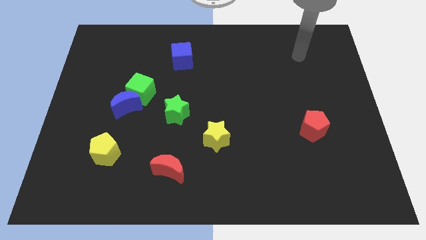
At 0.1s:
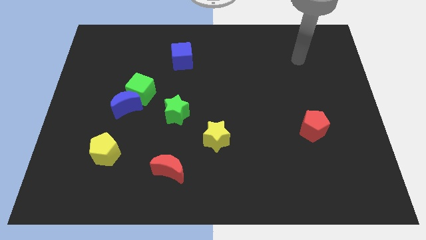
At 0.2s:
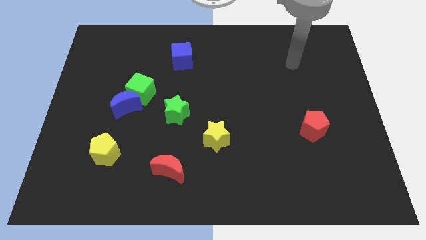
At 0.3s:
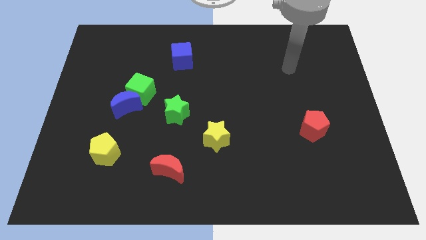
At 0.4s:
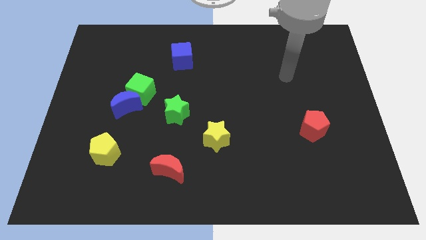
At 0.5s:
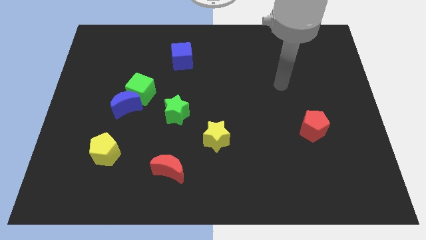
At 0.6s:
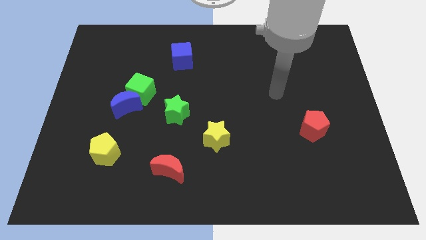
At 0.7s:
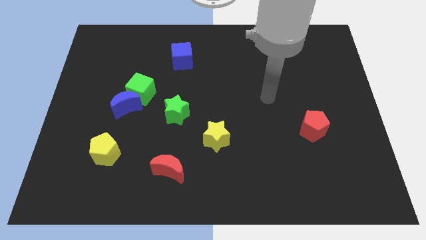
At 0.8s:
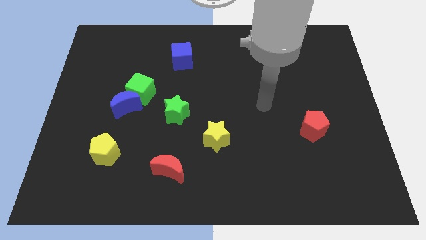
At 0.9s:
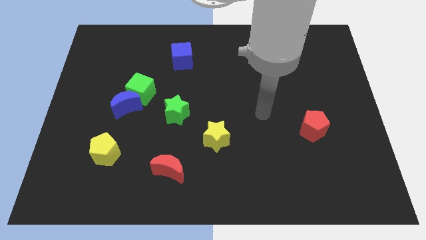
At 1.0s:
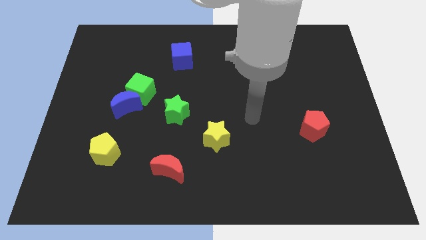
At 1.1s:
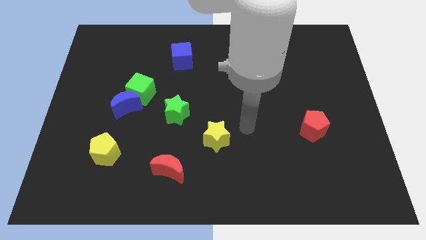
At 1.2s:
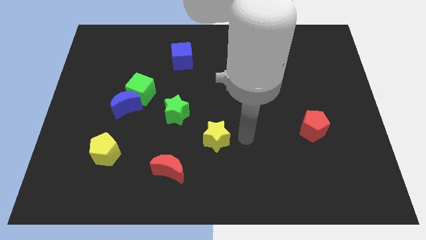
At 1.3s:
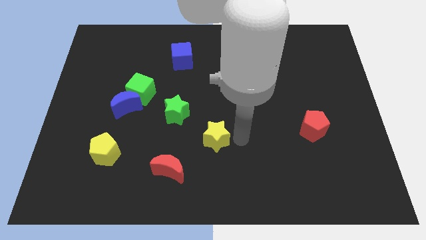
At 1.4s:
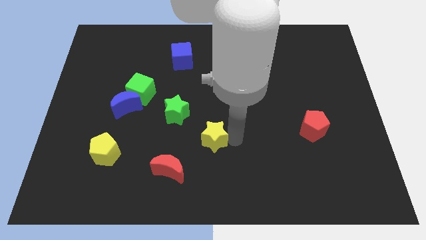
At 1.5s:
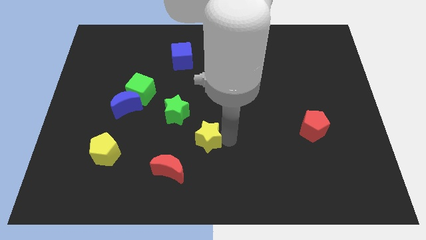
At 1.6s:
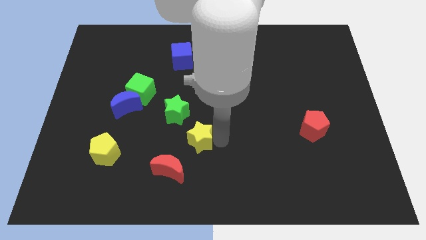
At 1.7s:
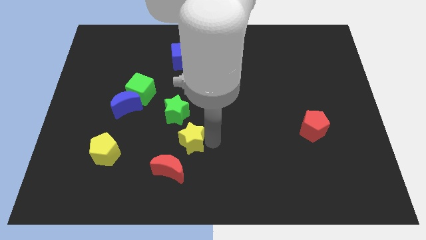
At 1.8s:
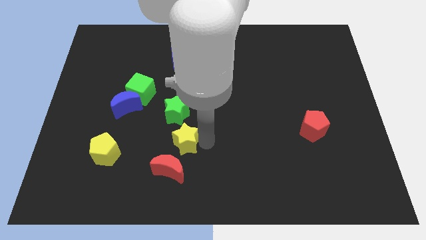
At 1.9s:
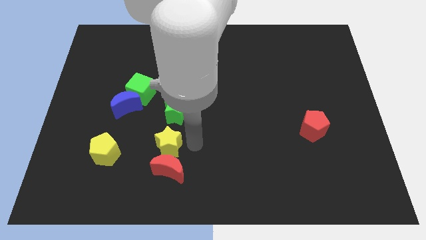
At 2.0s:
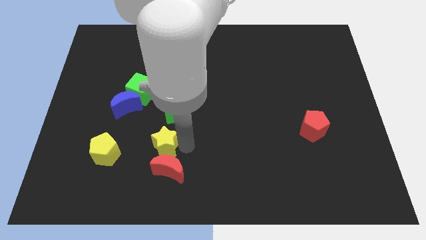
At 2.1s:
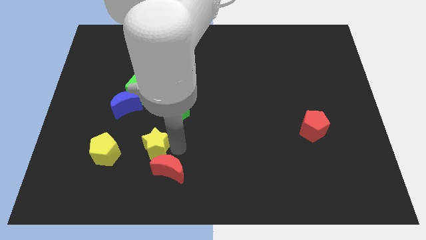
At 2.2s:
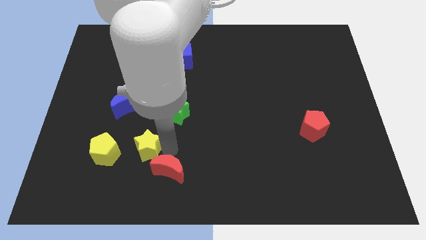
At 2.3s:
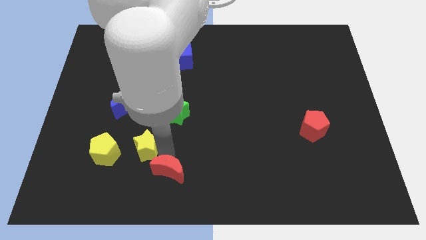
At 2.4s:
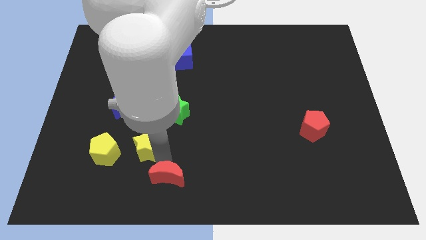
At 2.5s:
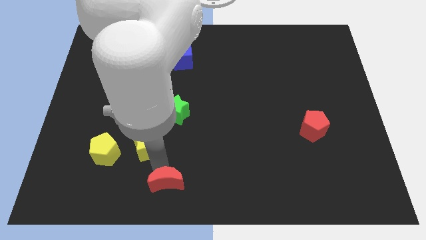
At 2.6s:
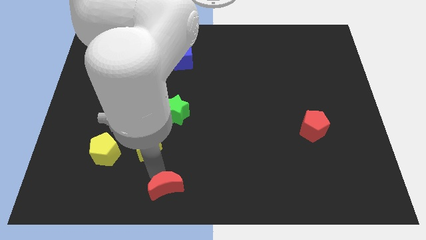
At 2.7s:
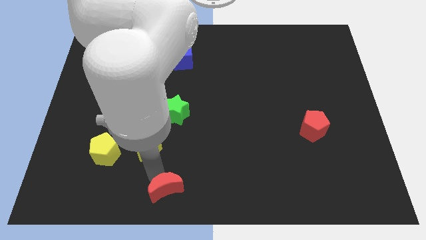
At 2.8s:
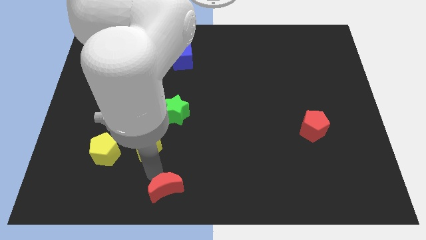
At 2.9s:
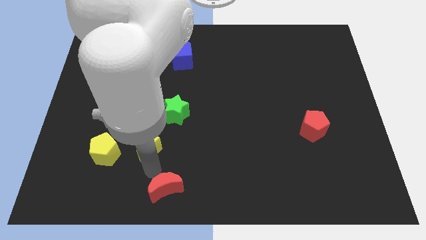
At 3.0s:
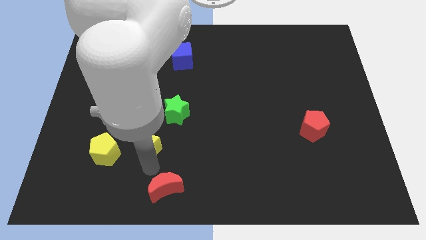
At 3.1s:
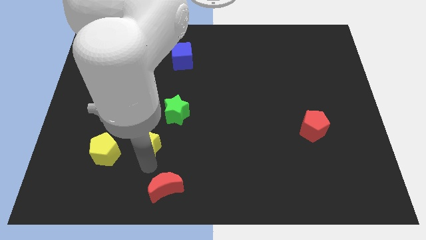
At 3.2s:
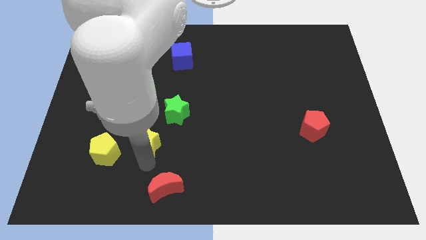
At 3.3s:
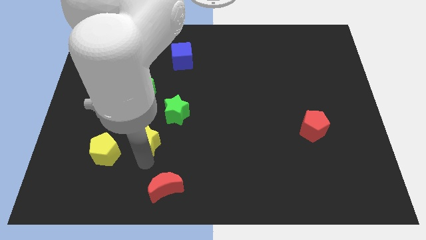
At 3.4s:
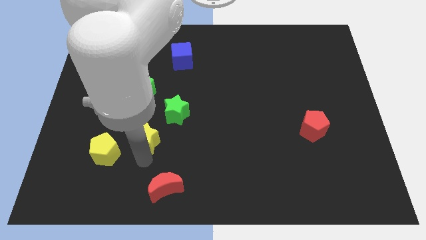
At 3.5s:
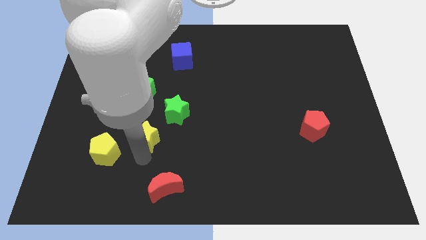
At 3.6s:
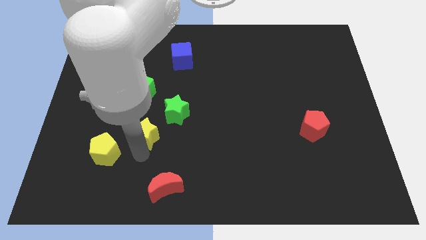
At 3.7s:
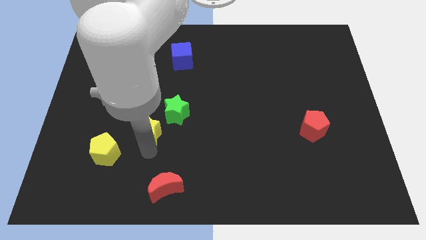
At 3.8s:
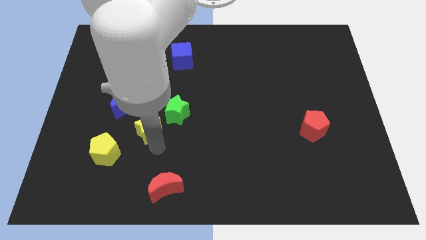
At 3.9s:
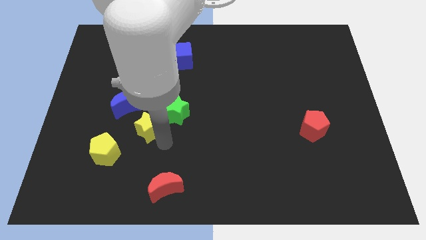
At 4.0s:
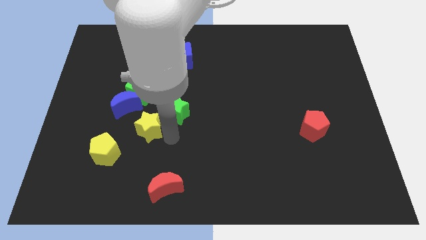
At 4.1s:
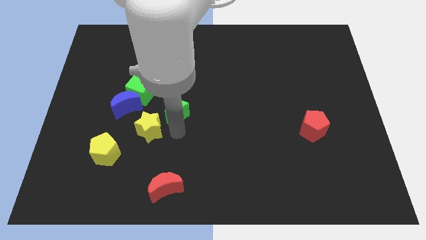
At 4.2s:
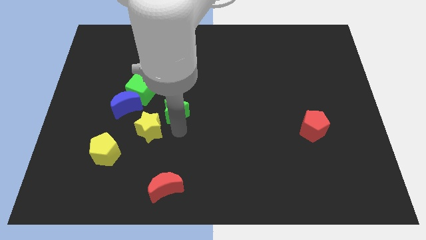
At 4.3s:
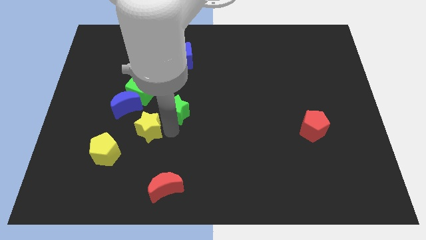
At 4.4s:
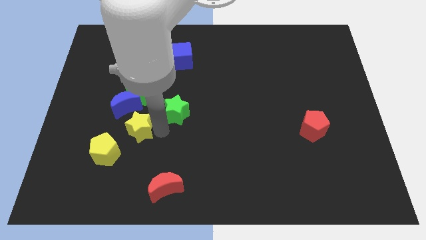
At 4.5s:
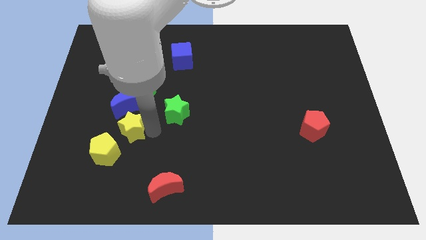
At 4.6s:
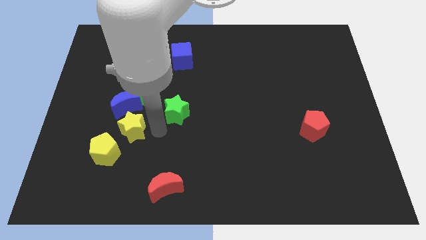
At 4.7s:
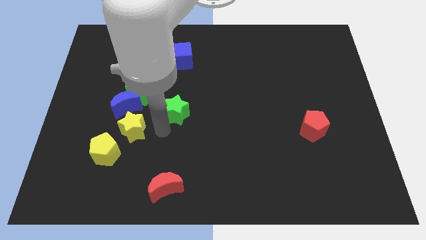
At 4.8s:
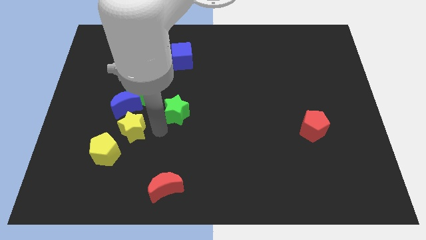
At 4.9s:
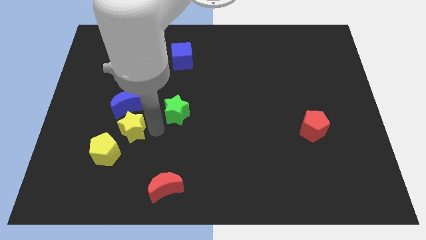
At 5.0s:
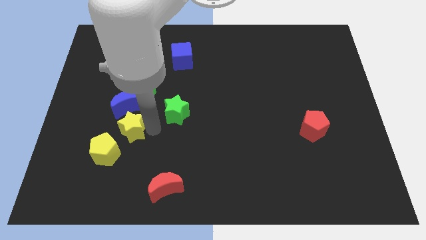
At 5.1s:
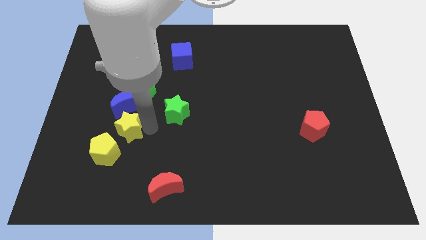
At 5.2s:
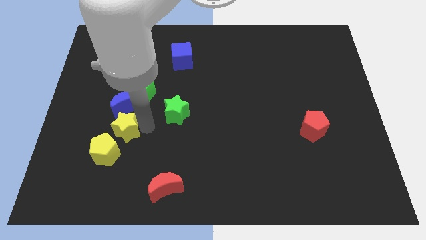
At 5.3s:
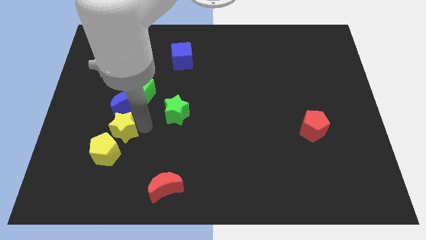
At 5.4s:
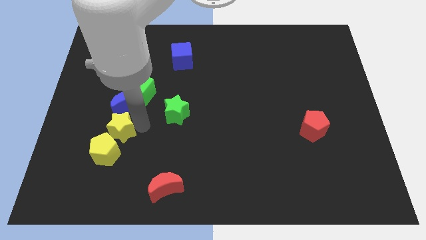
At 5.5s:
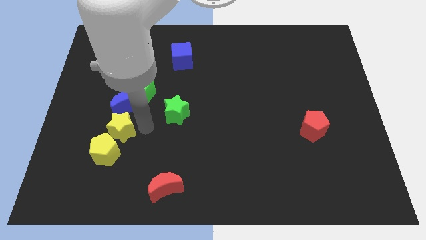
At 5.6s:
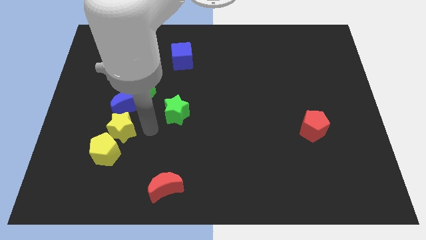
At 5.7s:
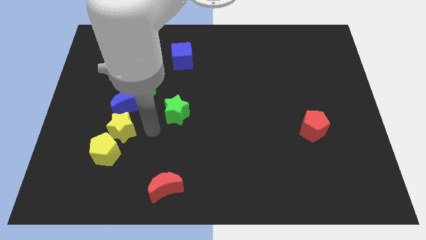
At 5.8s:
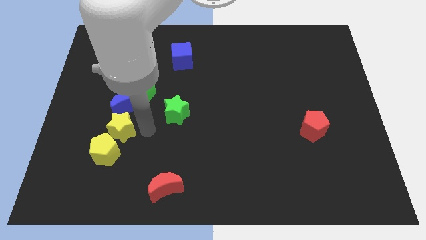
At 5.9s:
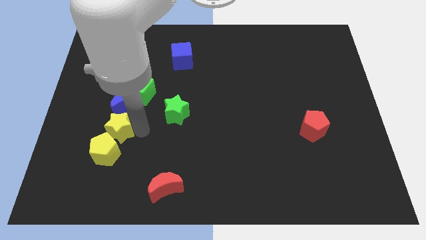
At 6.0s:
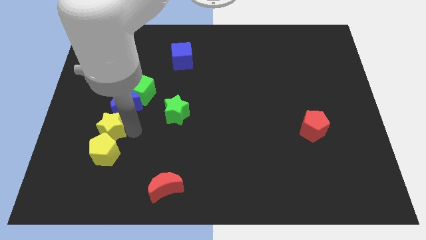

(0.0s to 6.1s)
move the yellow star to the top left side of the yellow pentagon
